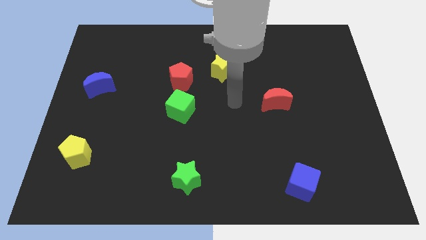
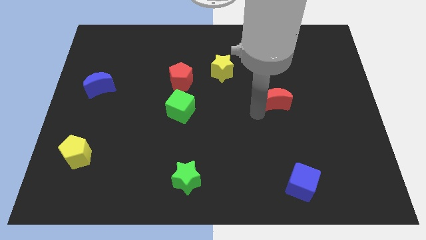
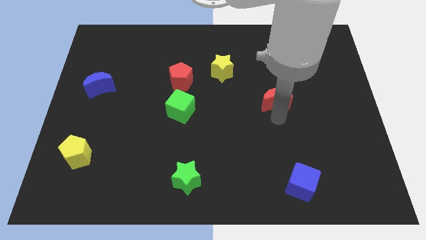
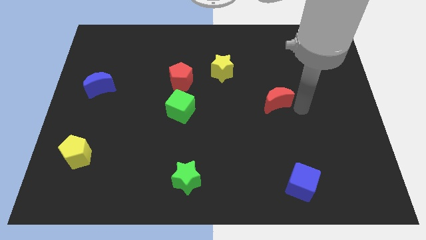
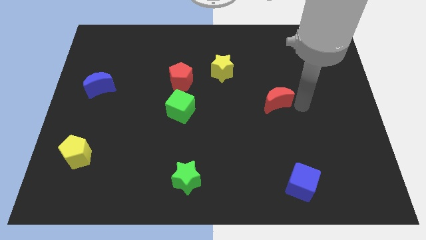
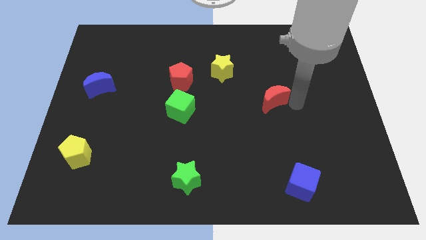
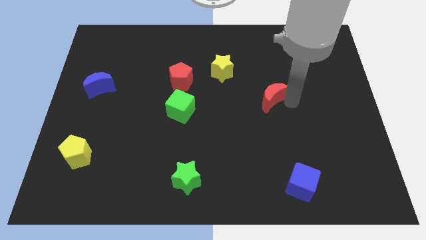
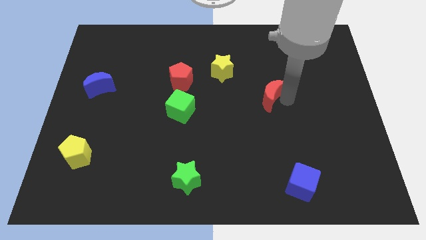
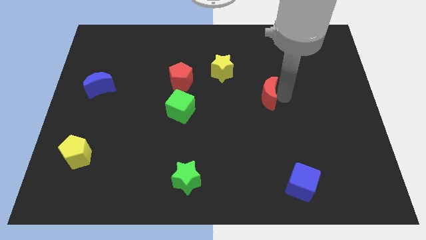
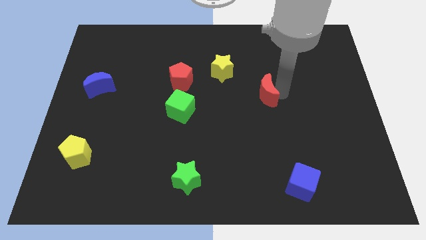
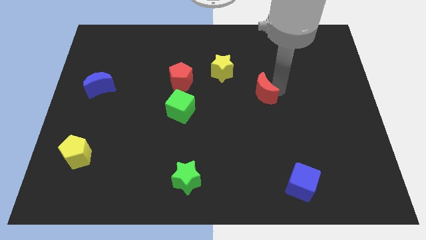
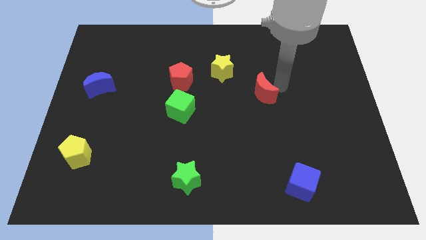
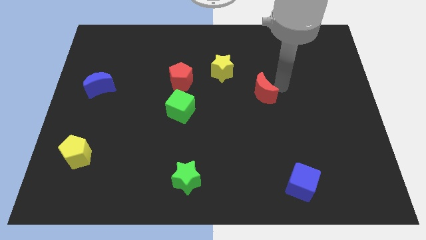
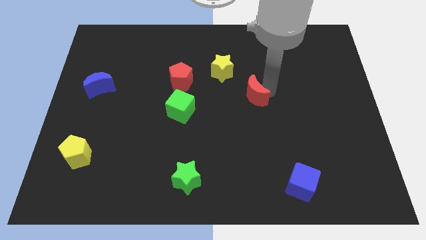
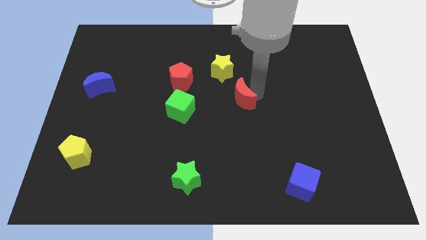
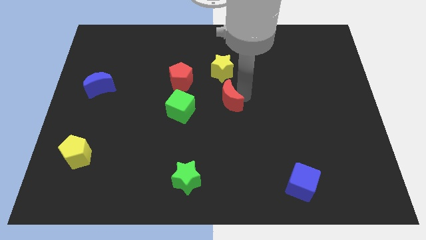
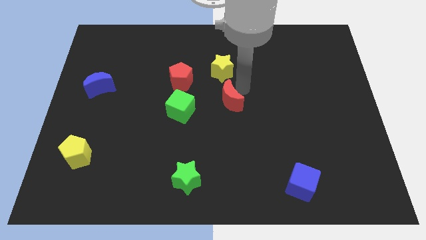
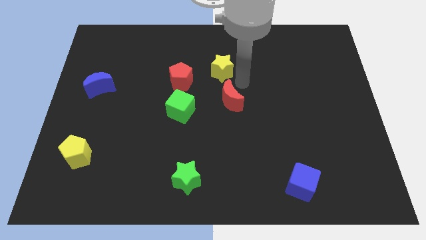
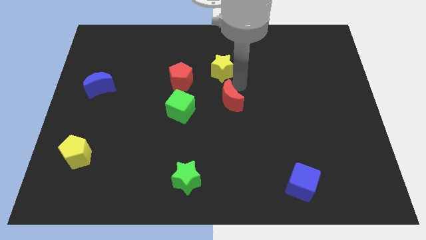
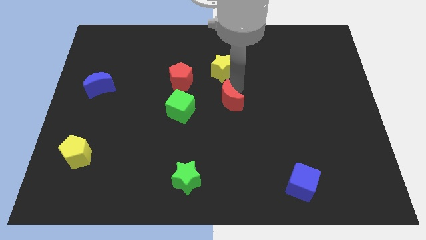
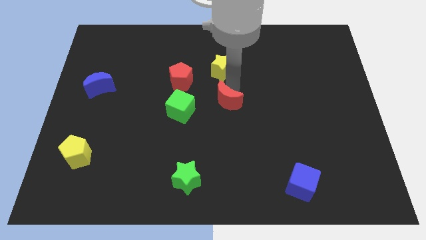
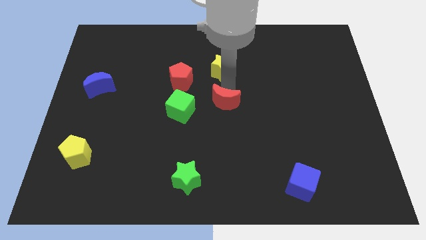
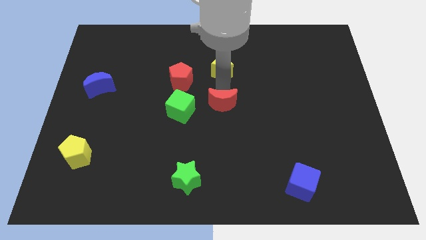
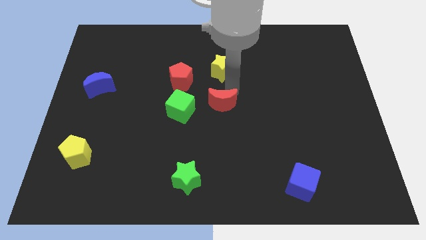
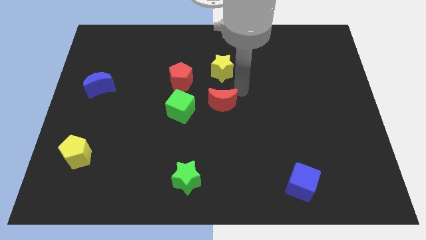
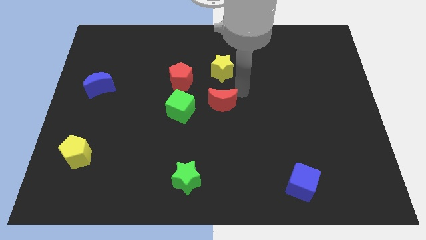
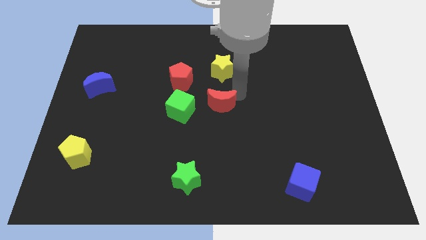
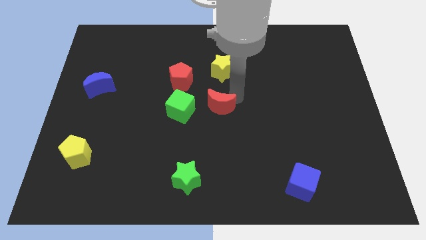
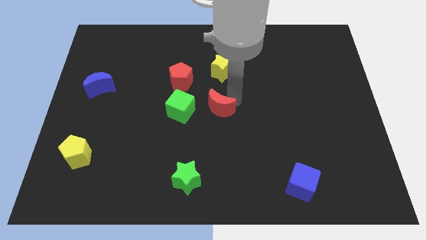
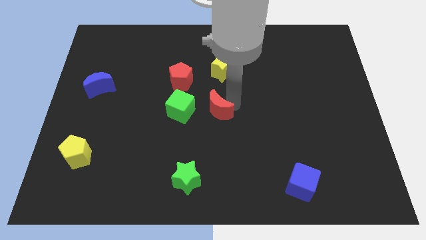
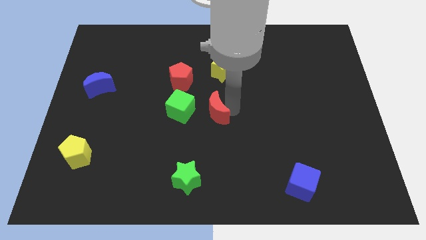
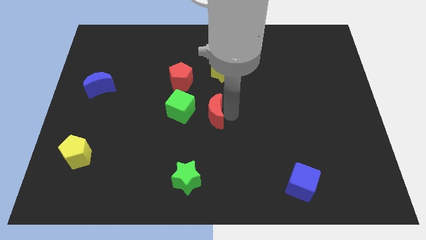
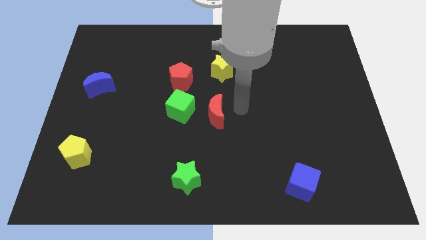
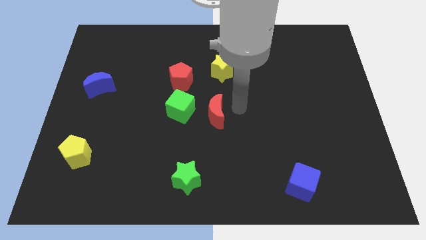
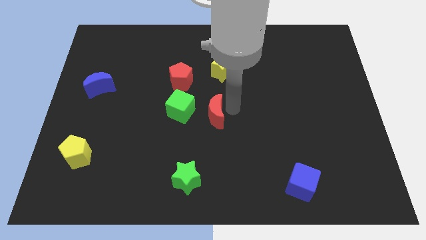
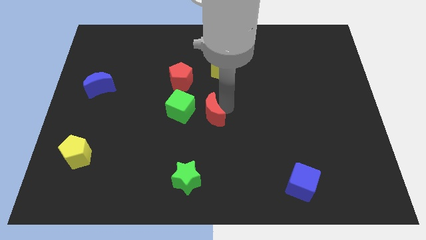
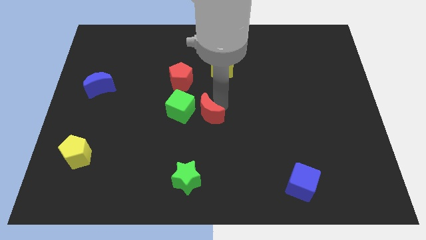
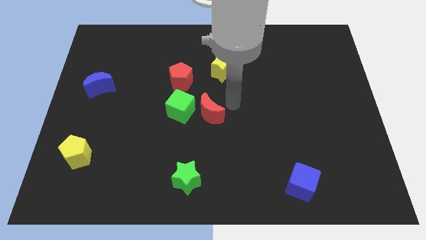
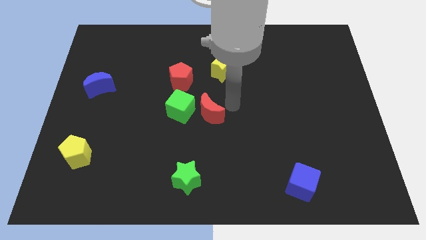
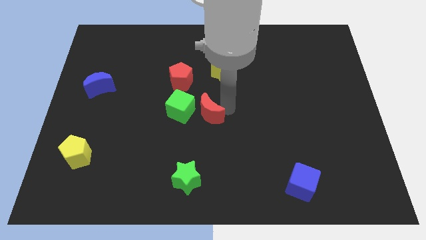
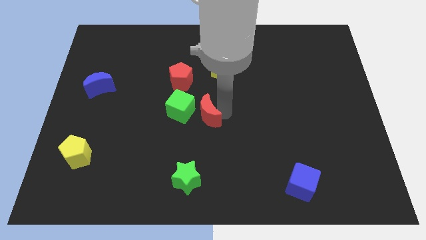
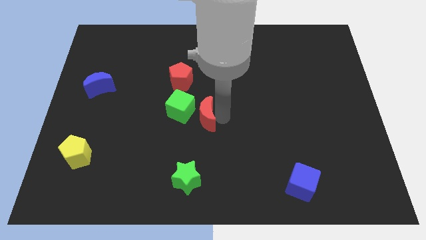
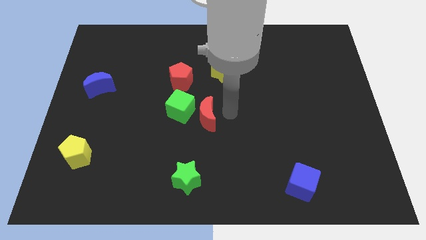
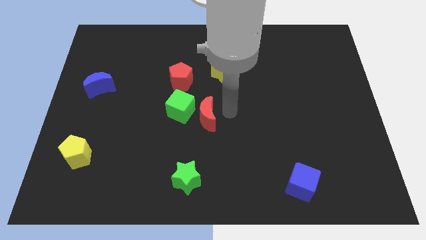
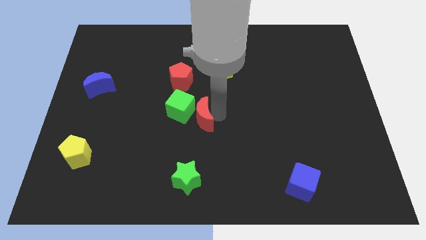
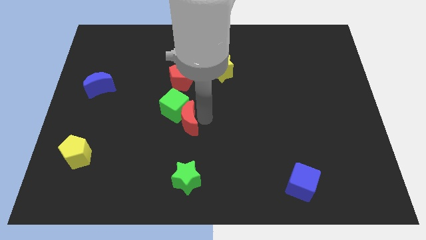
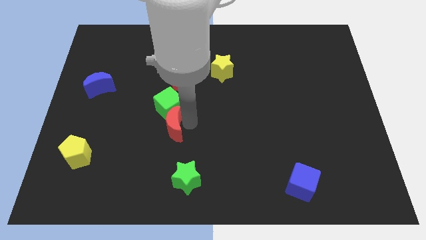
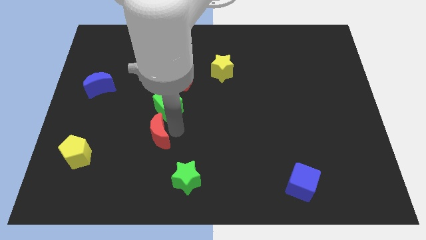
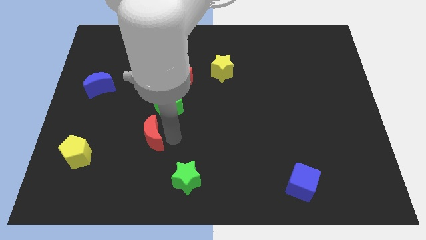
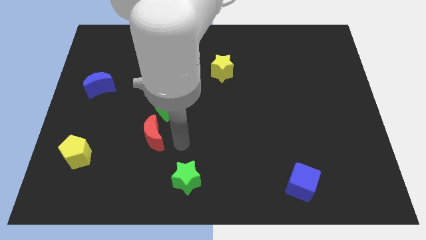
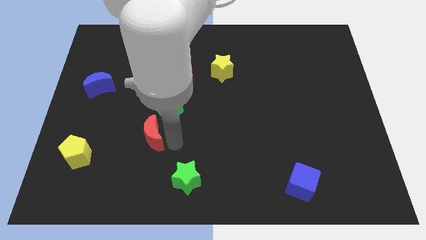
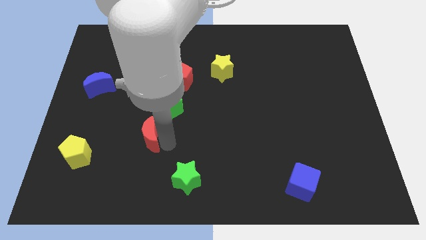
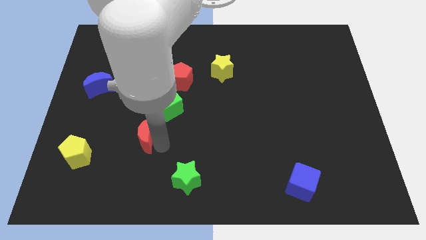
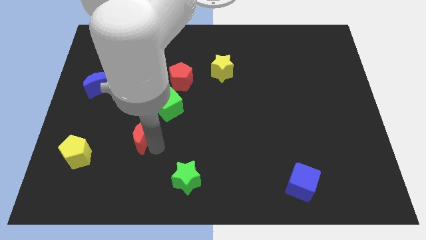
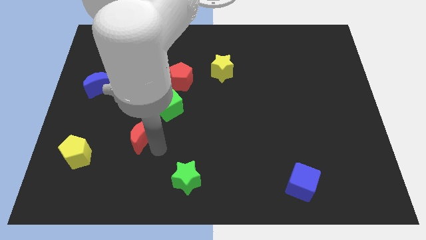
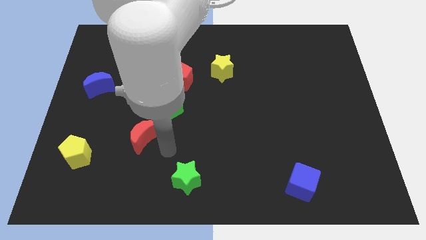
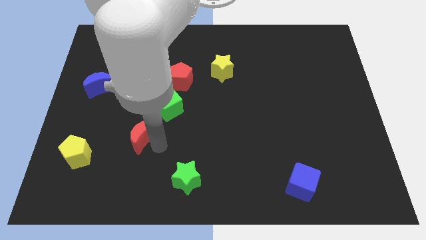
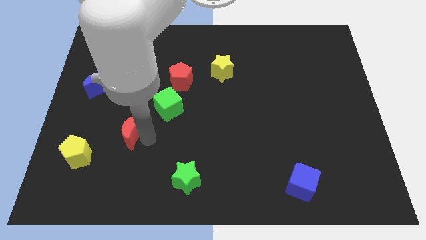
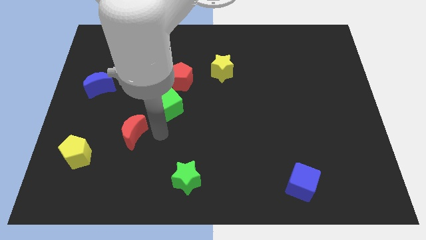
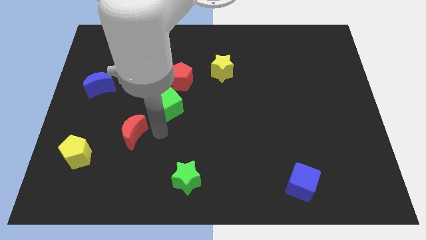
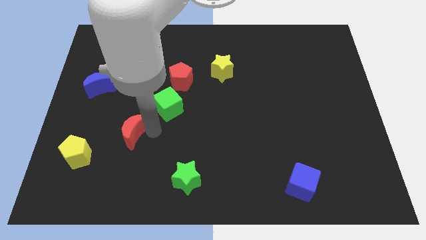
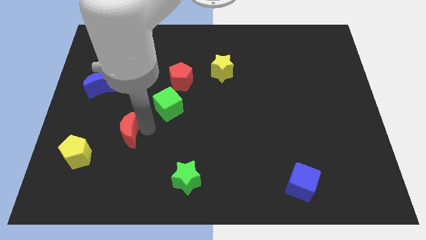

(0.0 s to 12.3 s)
put the red moon to the top right of the yellow pentagon

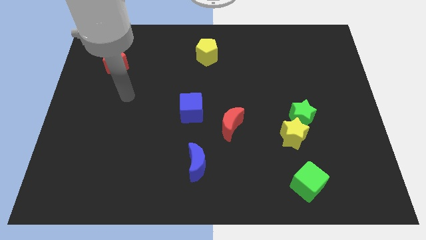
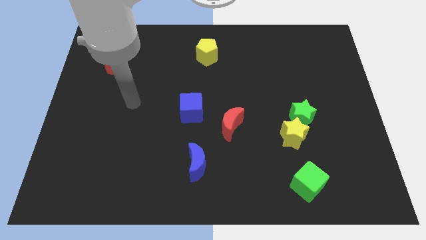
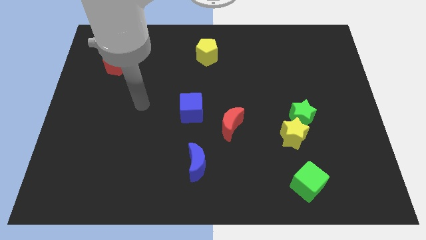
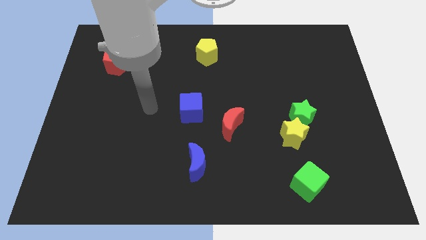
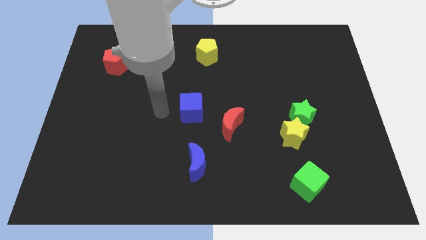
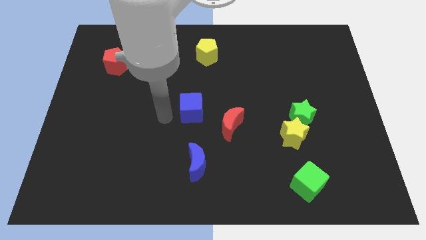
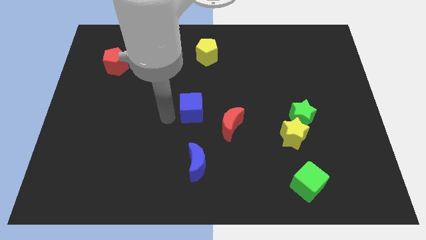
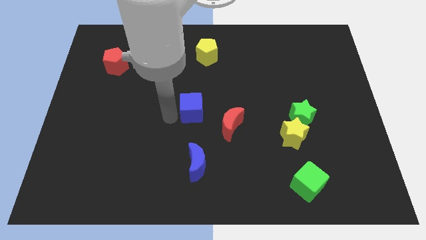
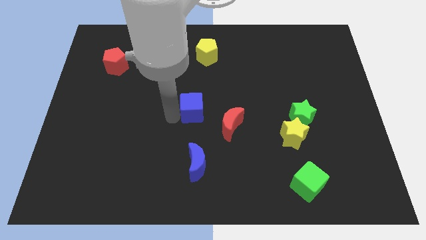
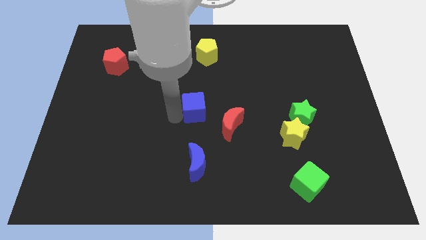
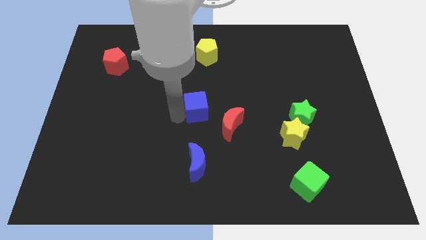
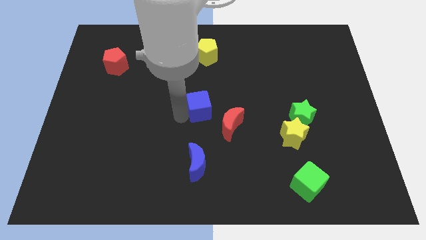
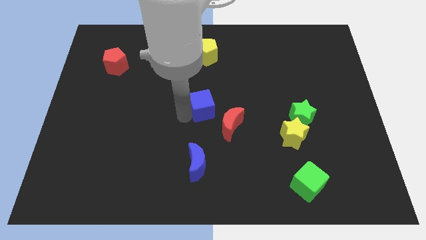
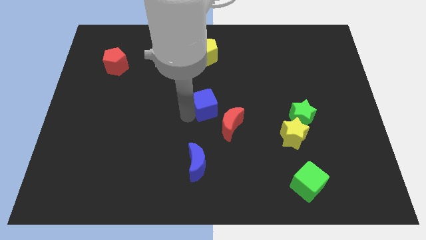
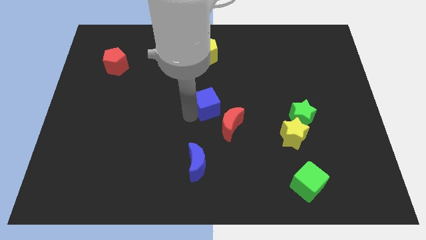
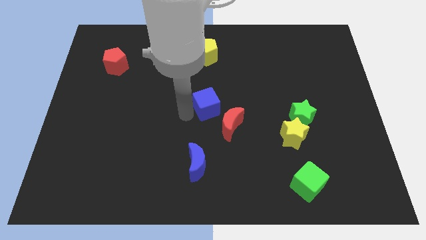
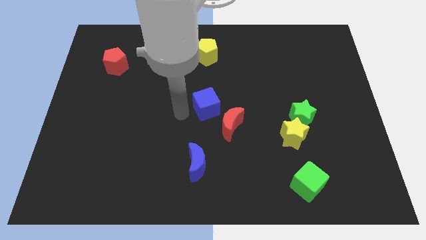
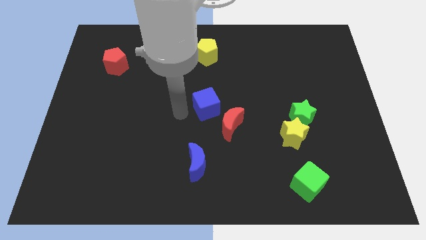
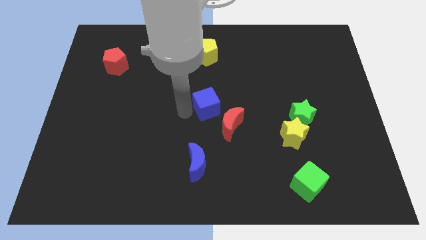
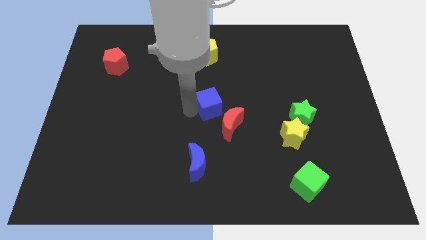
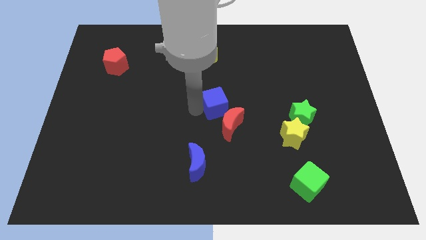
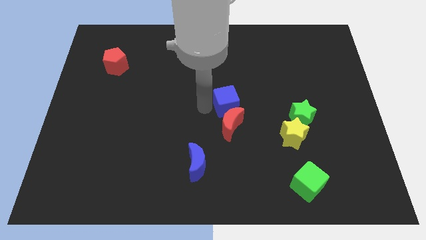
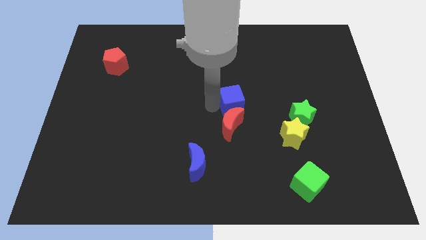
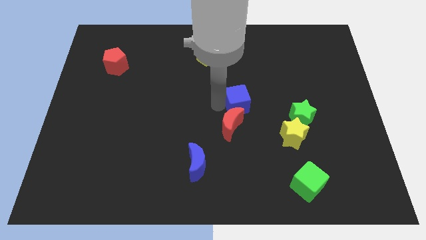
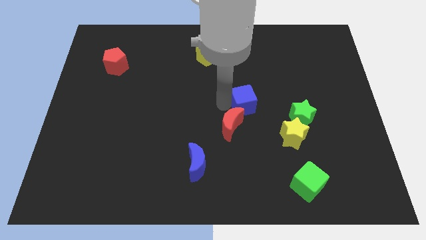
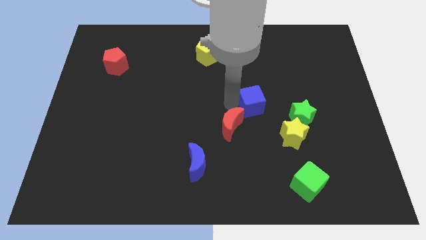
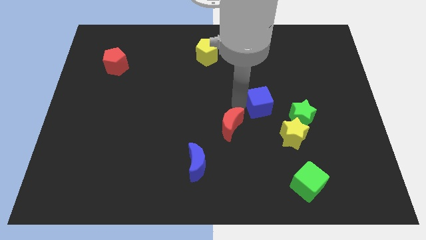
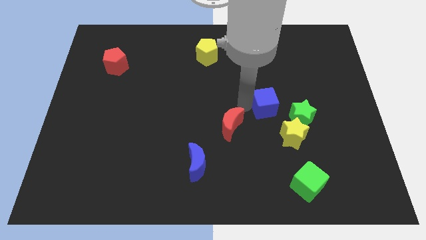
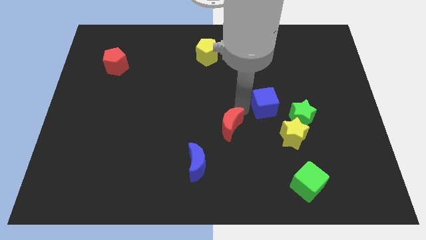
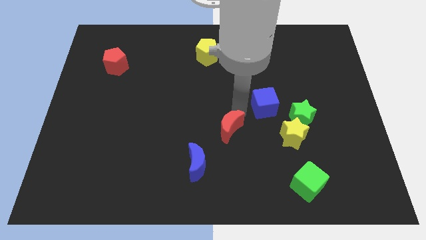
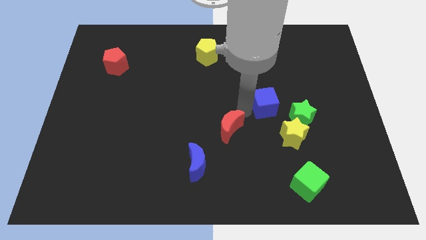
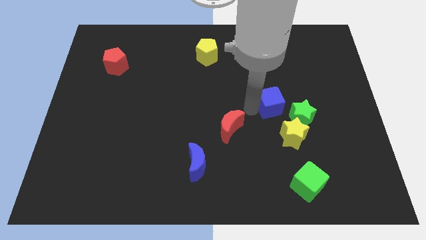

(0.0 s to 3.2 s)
put the blue cube to the top side of the yellow star
